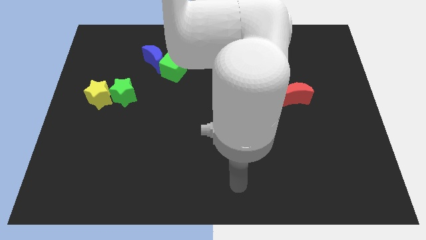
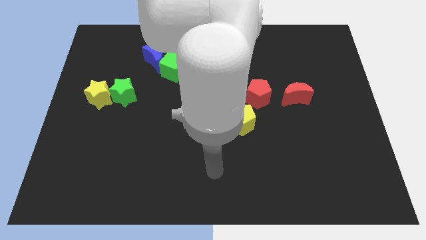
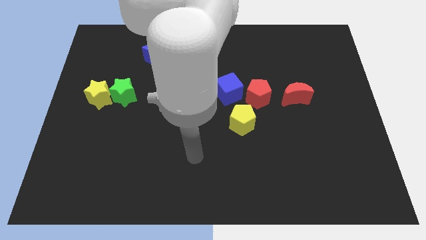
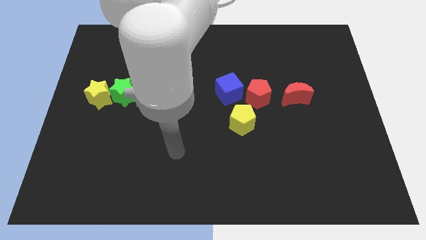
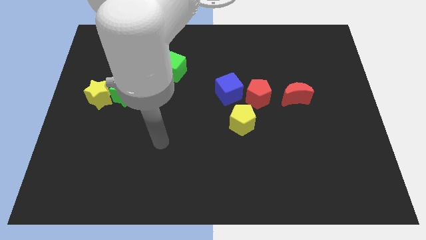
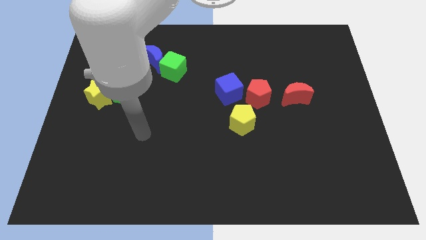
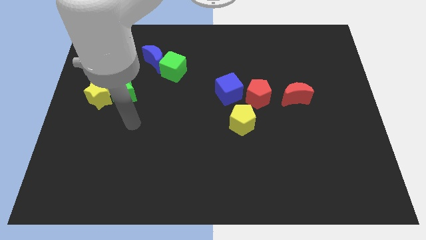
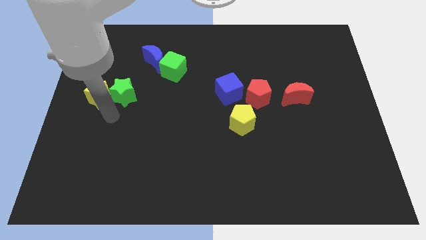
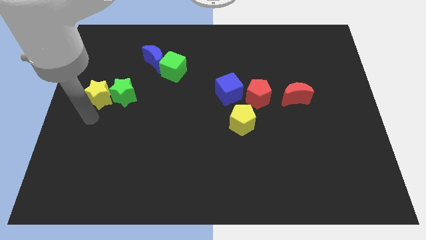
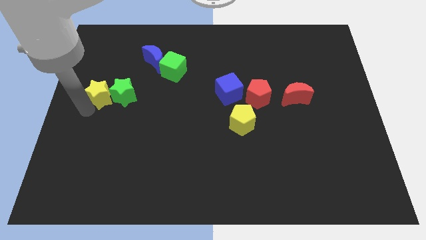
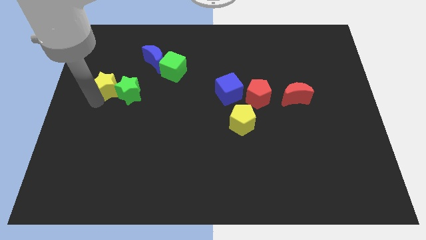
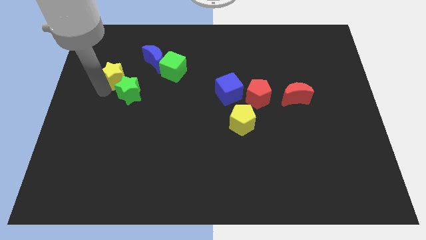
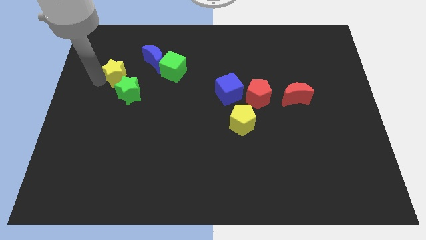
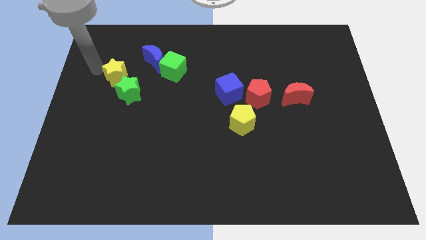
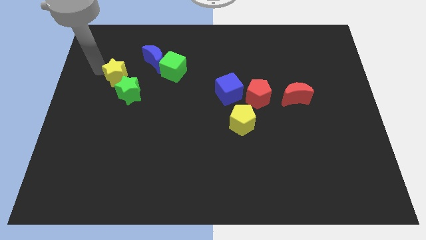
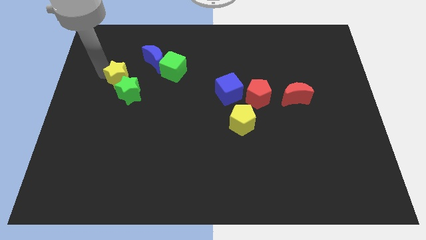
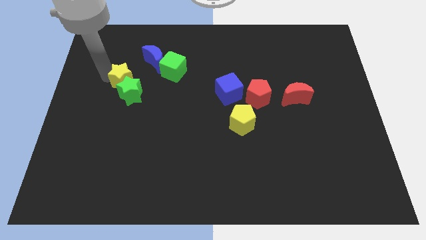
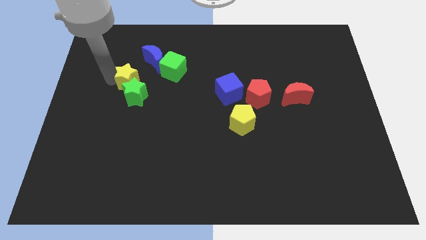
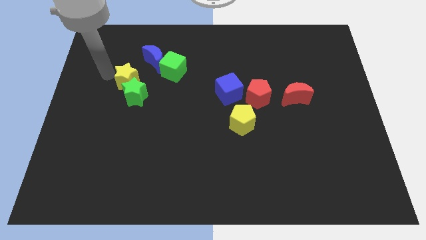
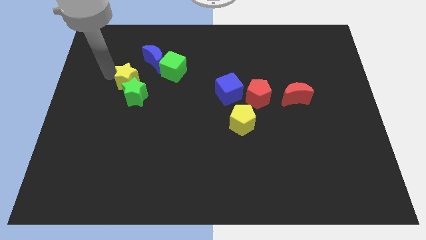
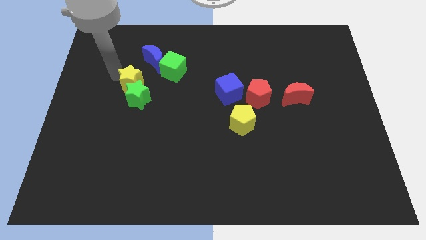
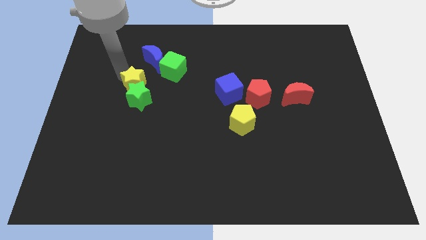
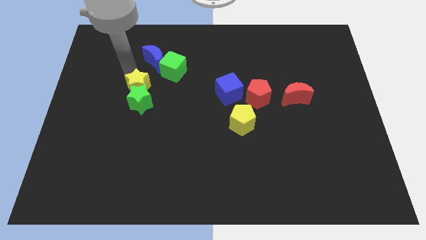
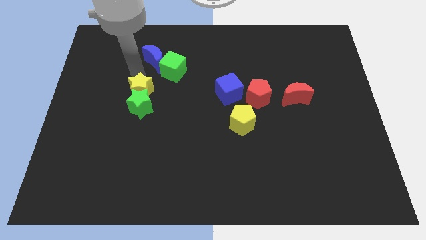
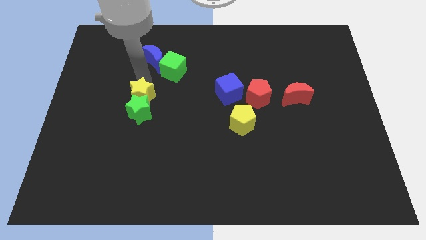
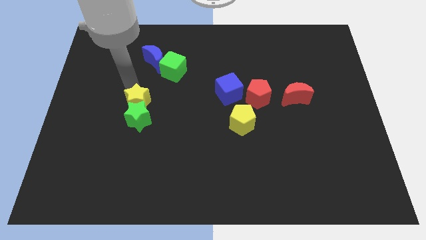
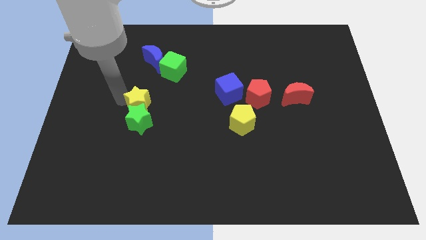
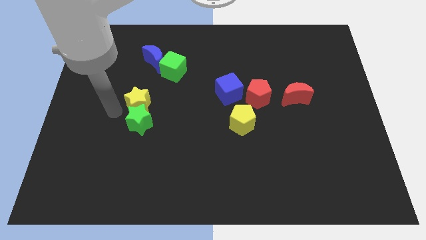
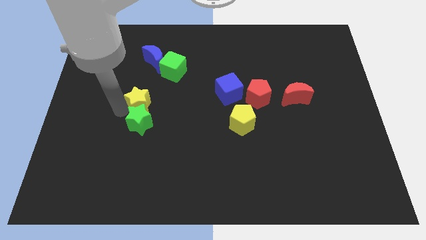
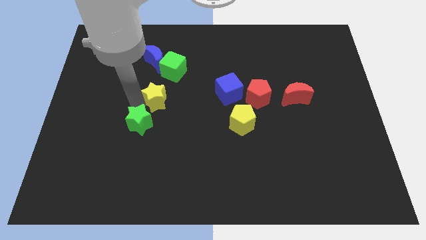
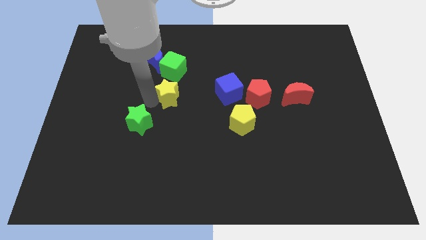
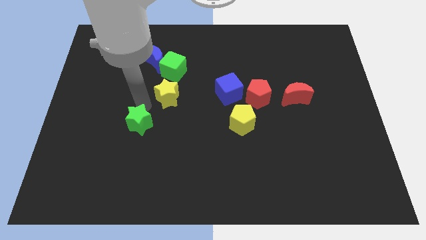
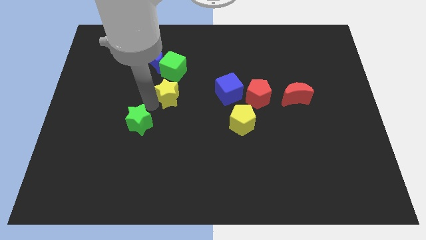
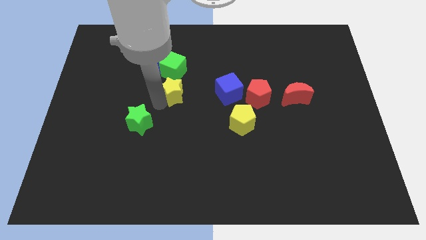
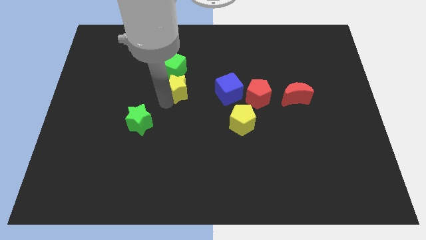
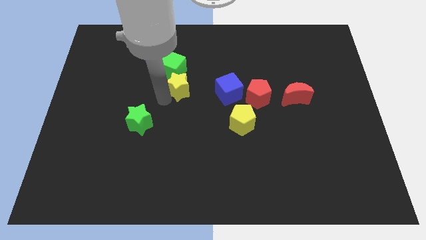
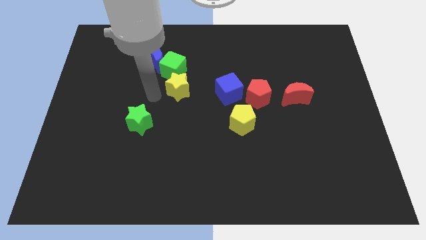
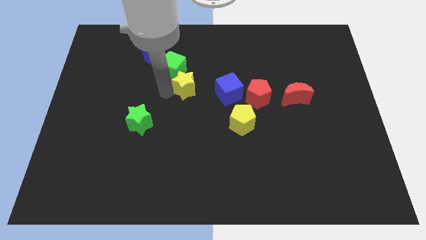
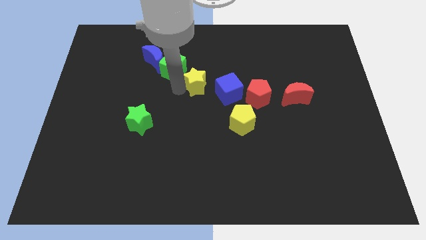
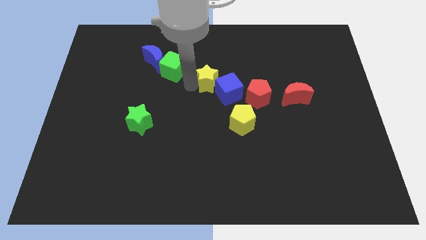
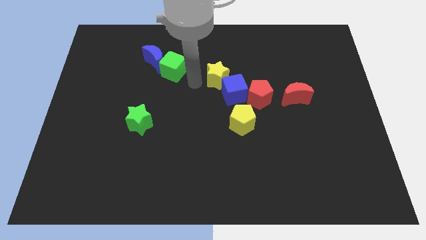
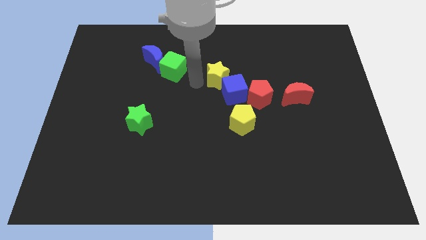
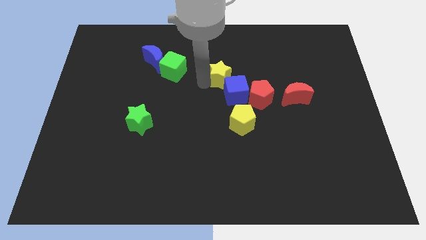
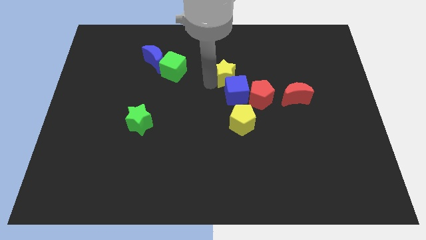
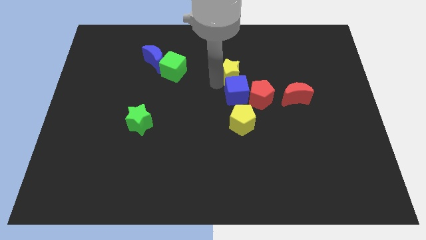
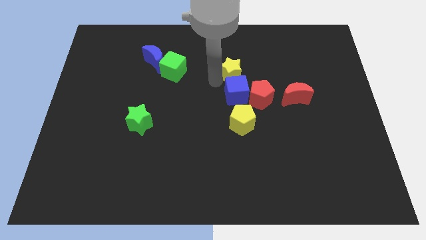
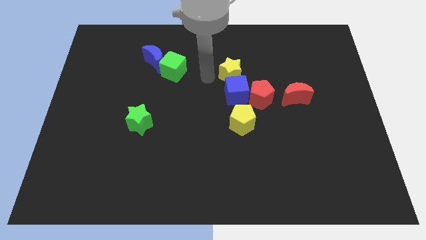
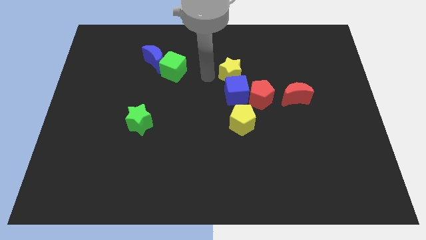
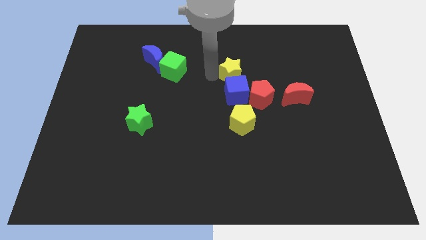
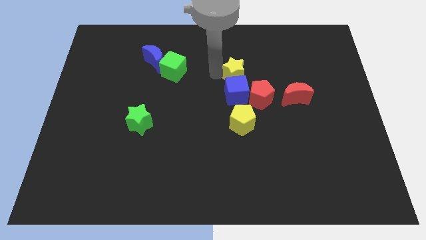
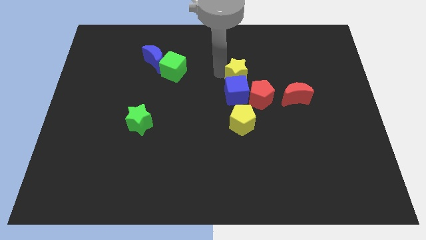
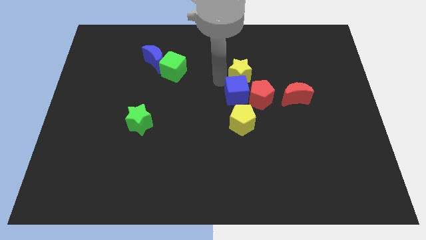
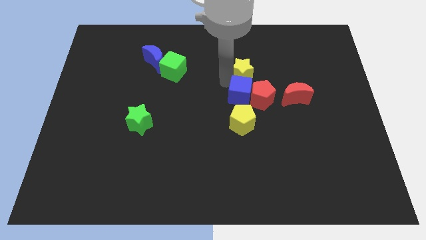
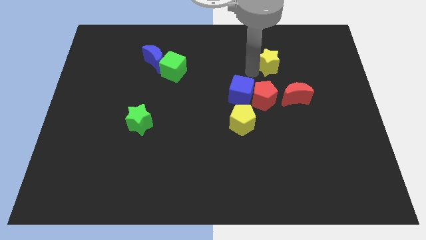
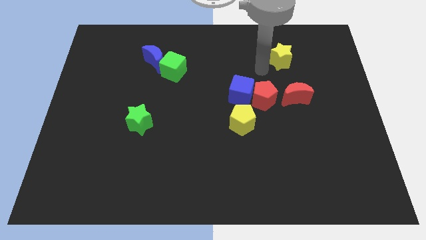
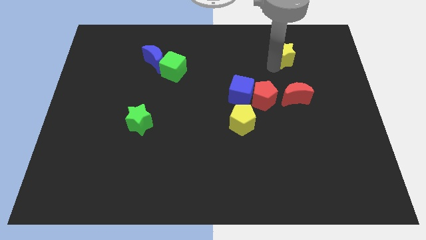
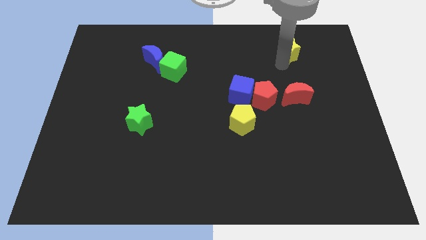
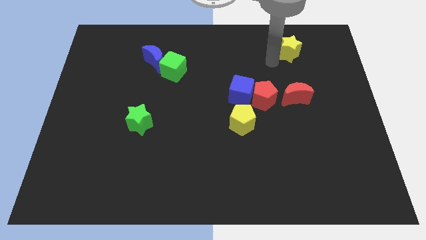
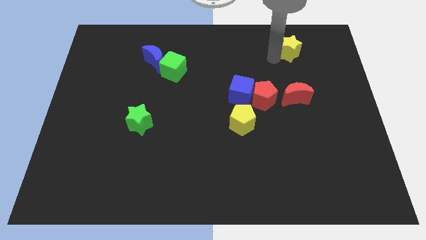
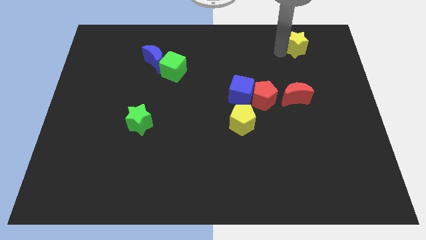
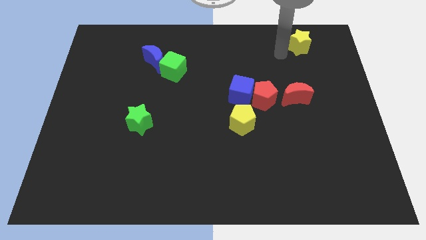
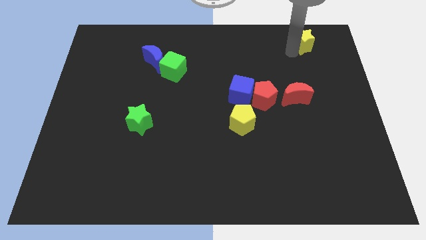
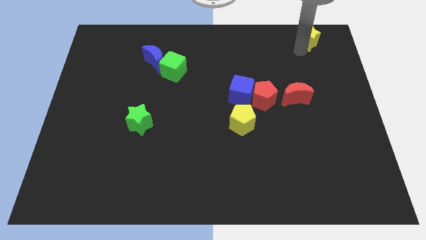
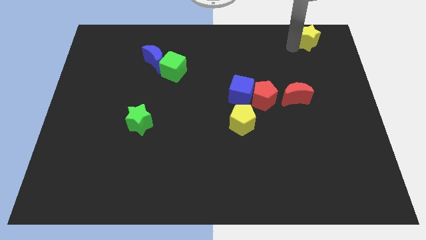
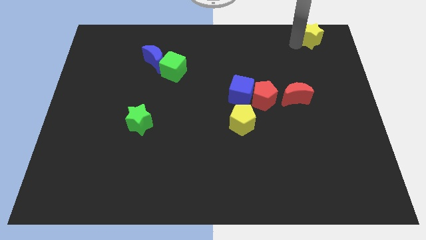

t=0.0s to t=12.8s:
slide the yellow star to the top right corner
